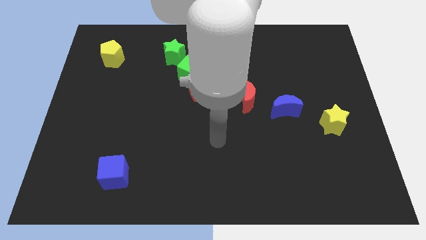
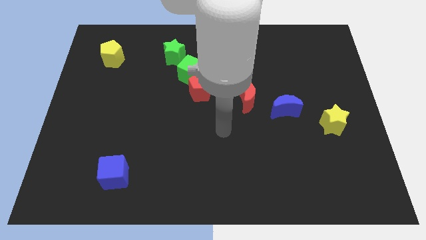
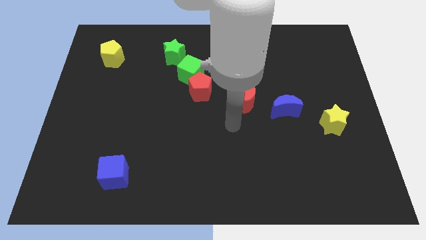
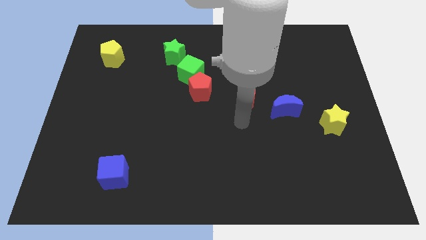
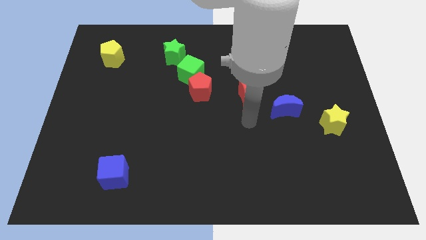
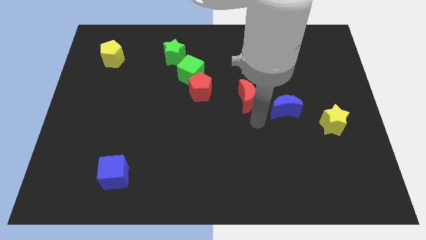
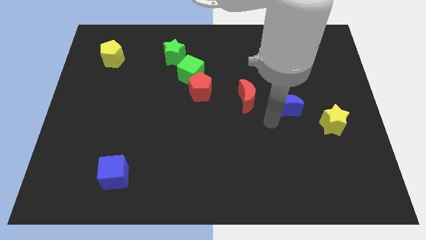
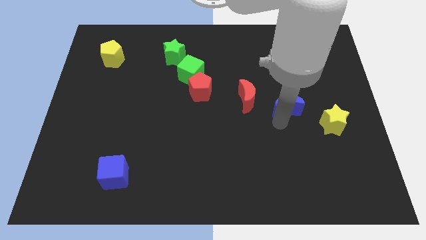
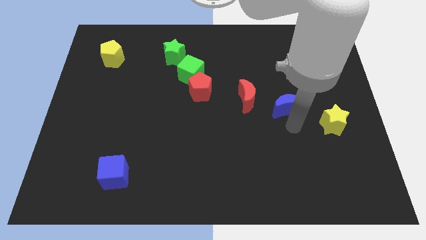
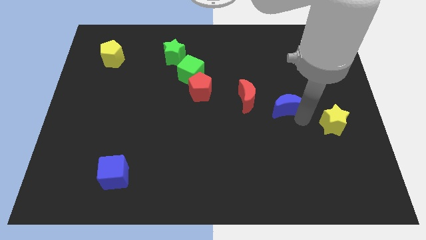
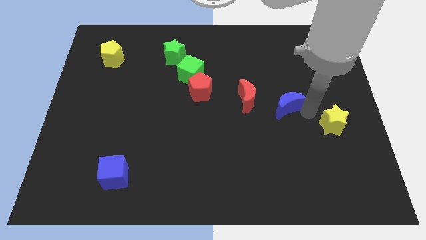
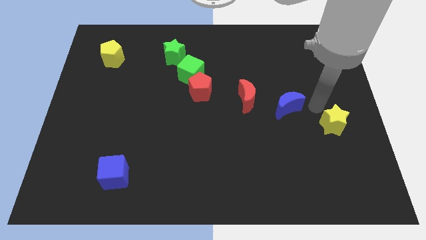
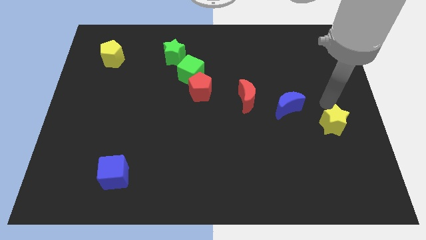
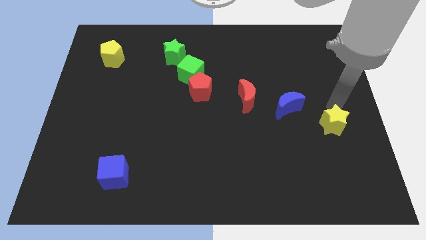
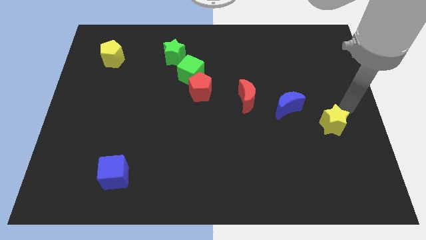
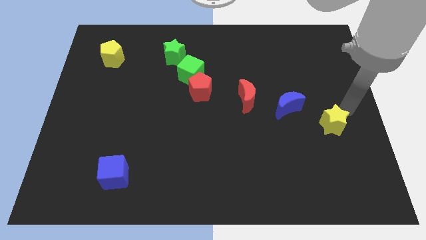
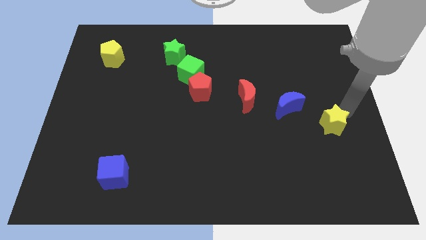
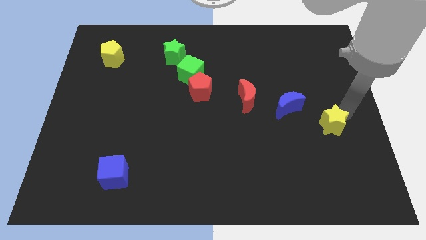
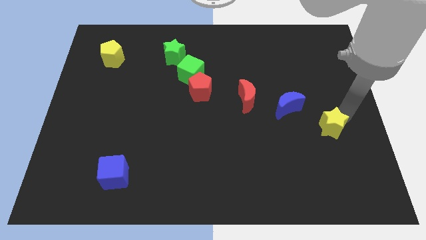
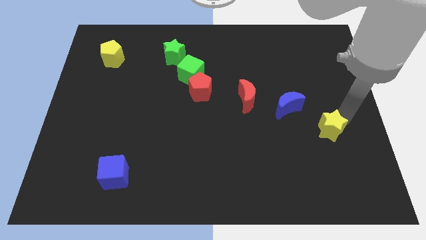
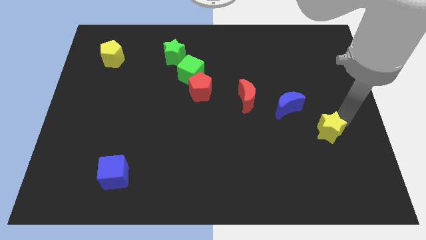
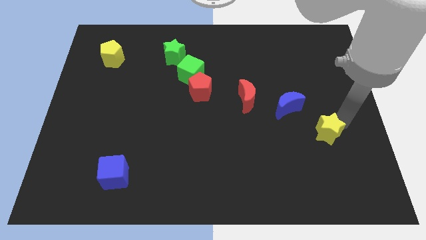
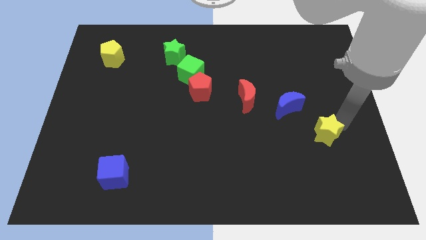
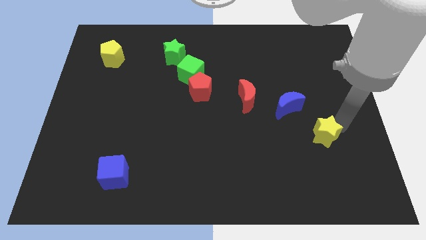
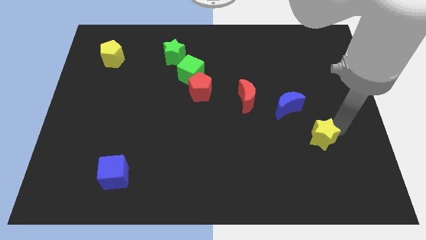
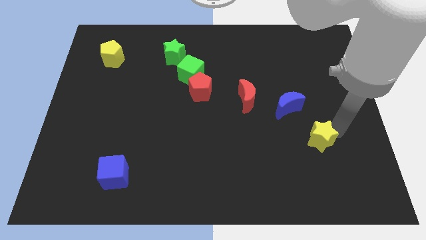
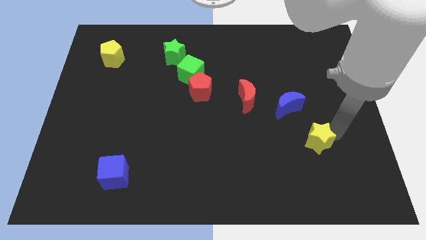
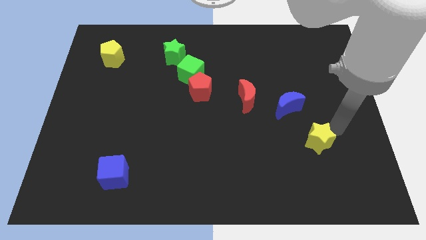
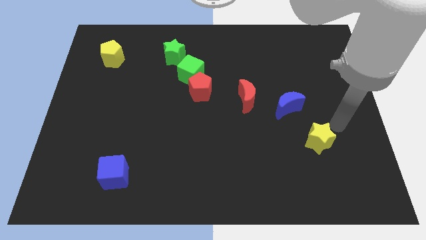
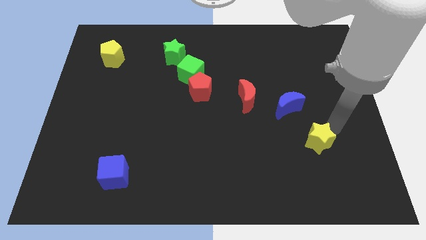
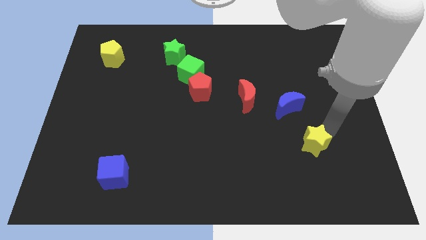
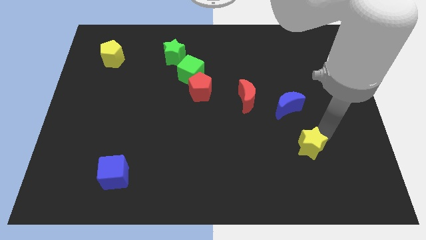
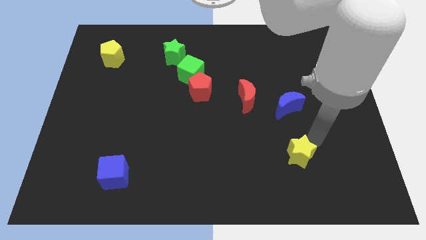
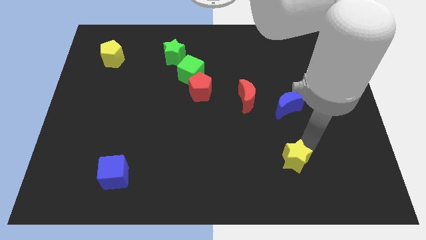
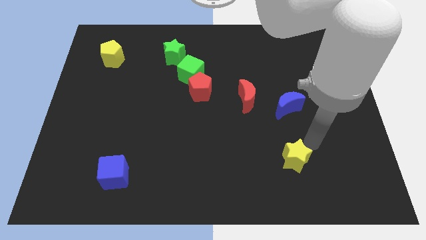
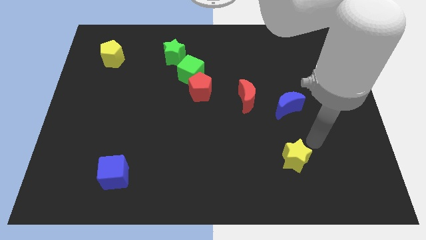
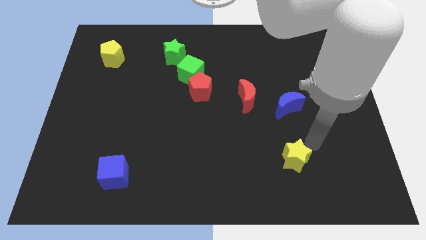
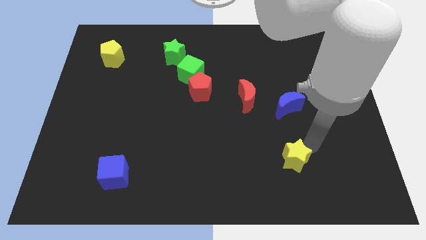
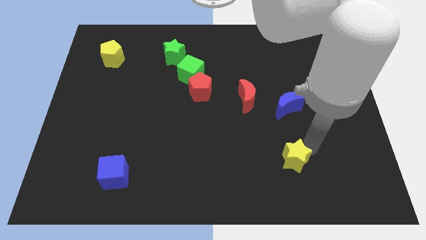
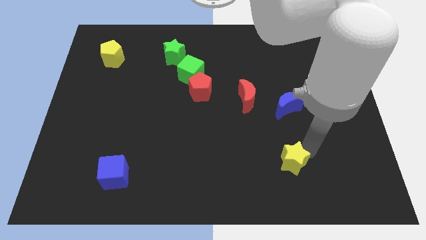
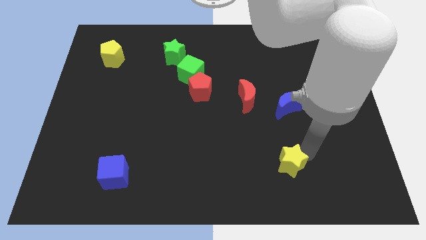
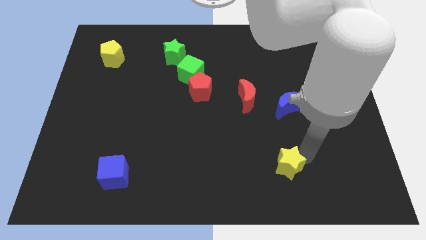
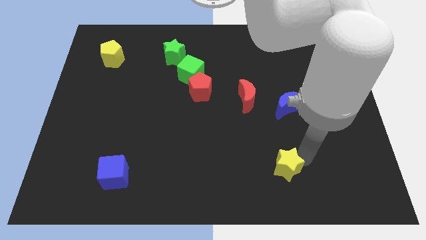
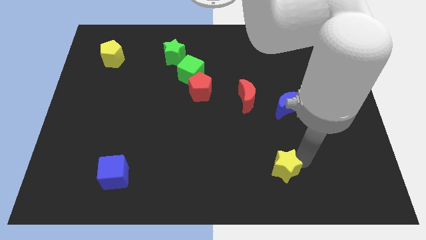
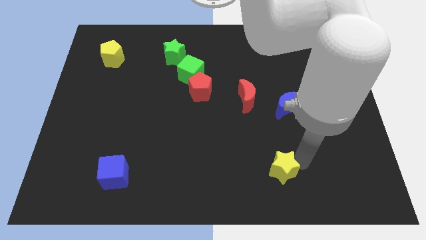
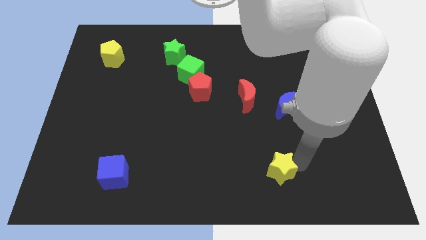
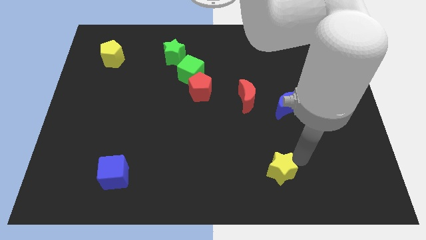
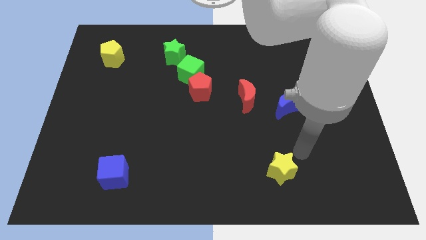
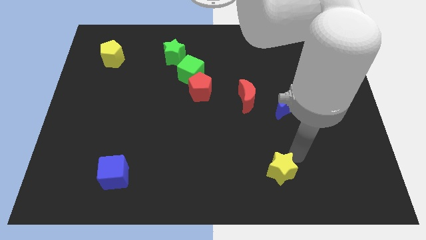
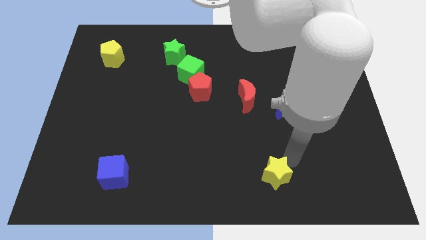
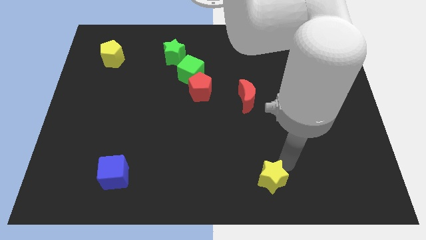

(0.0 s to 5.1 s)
put the yellow star to the bottom

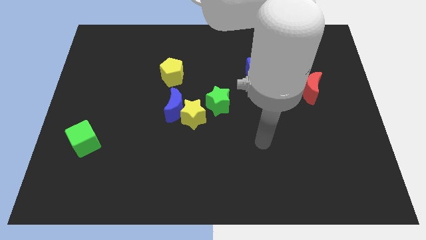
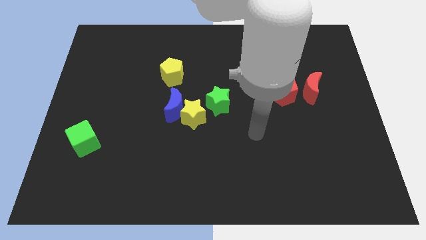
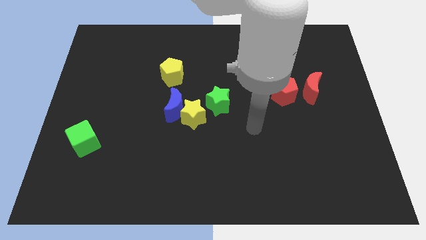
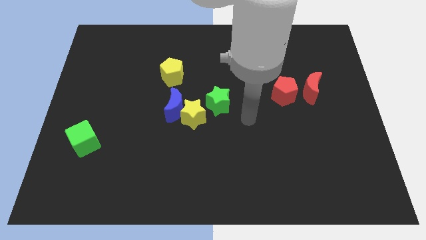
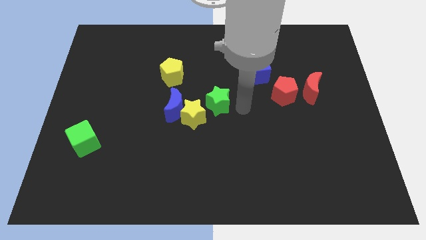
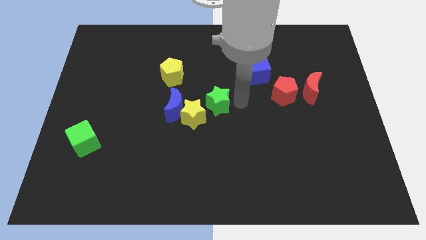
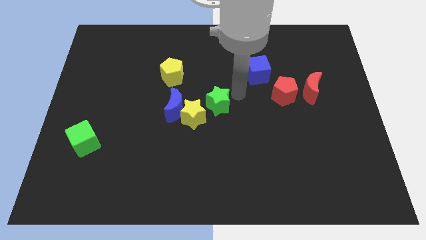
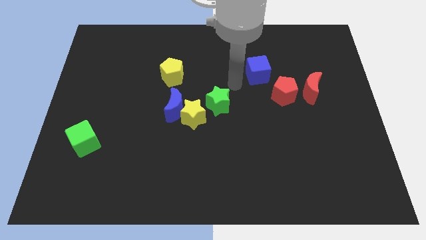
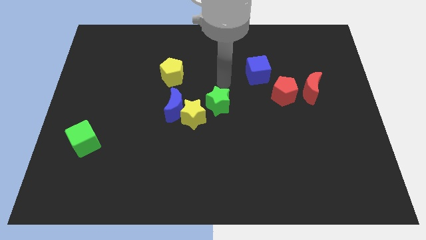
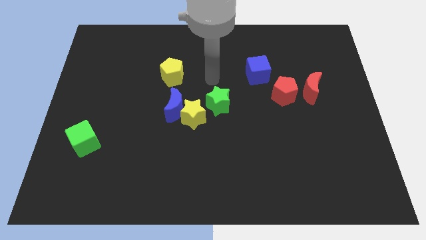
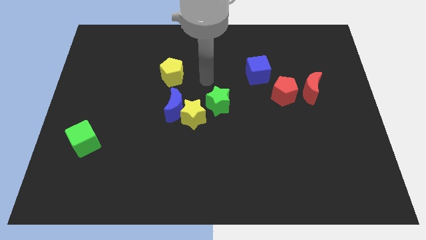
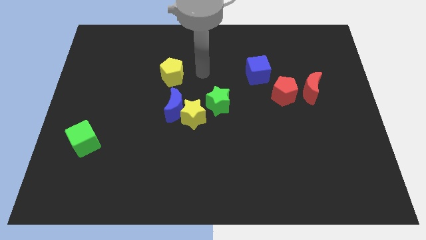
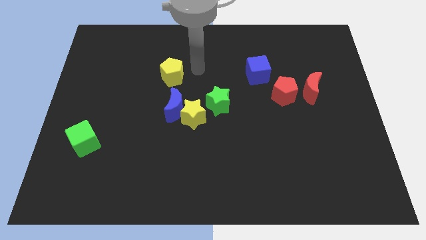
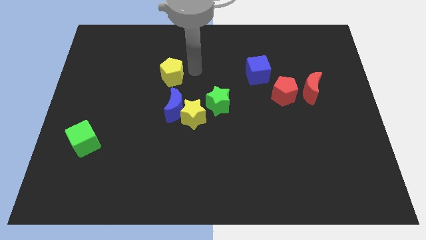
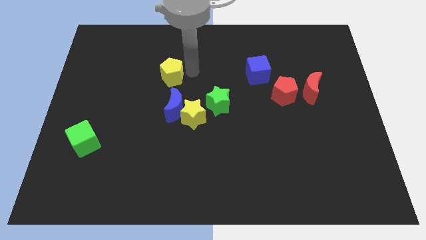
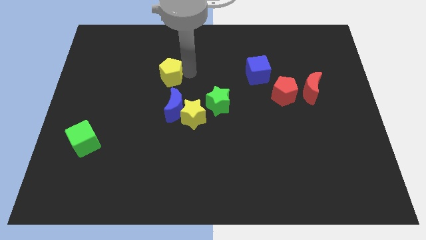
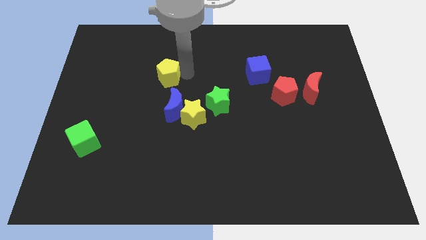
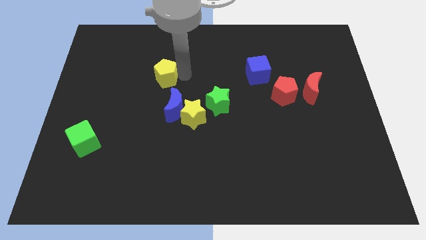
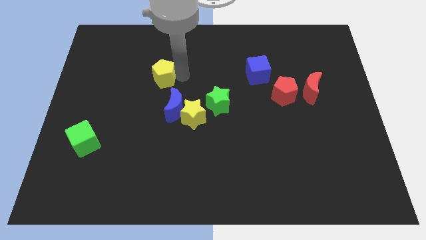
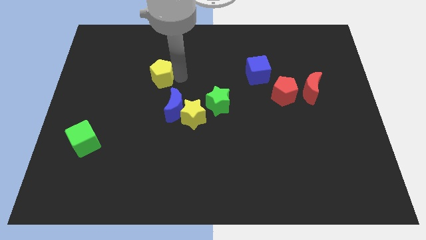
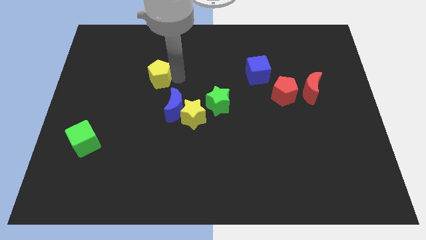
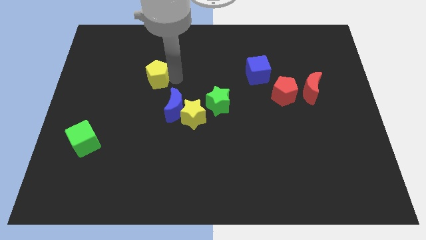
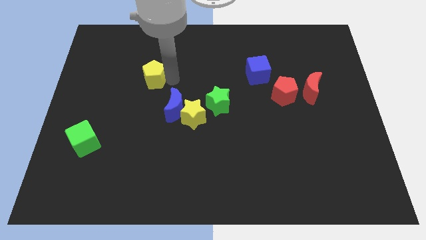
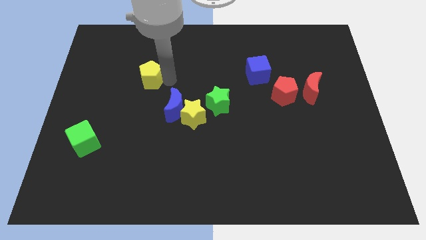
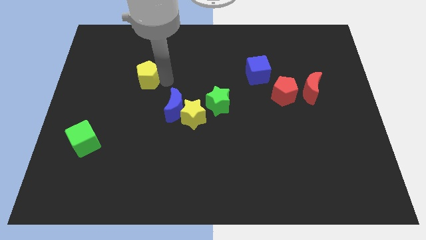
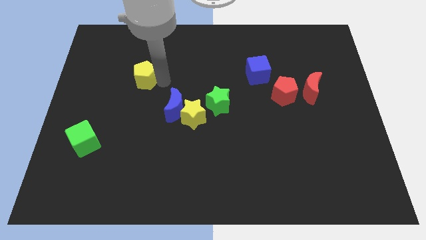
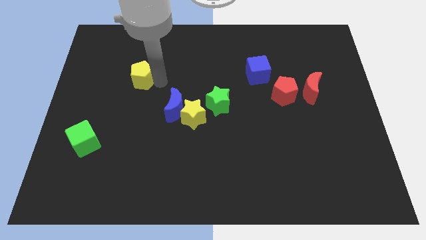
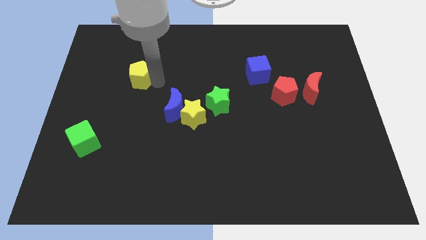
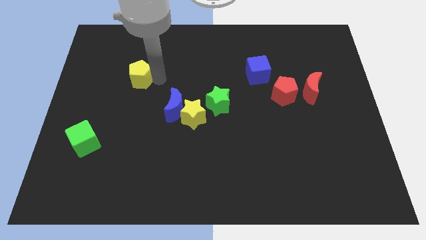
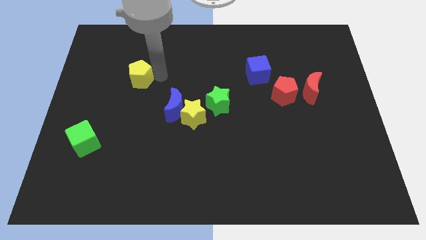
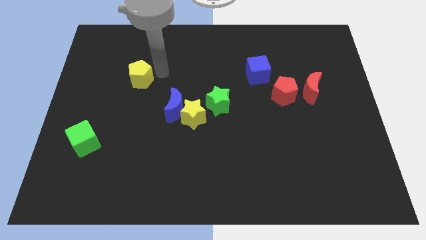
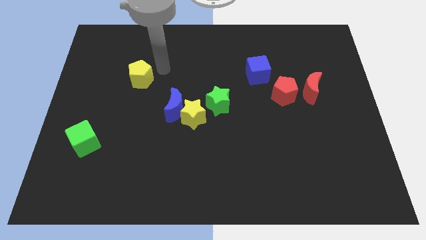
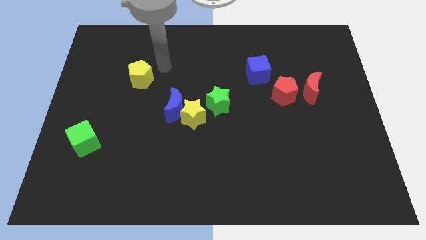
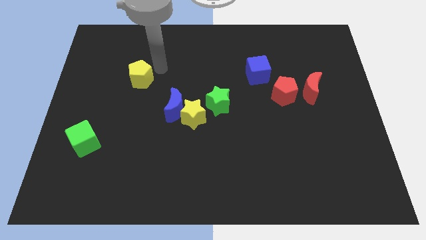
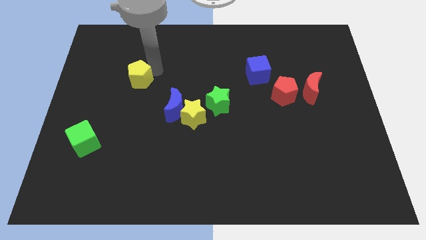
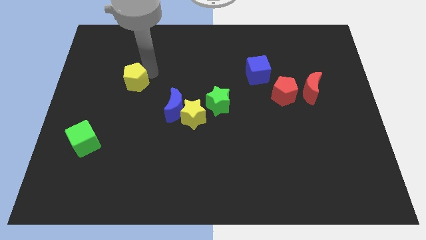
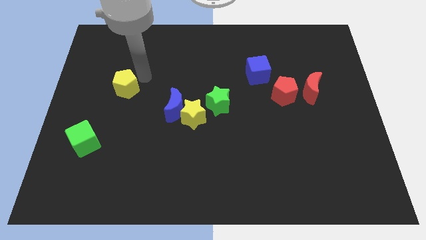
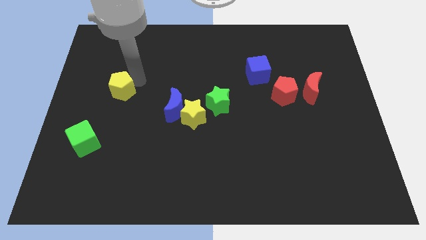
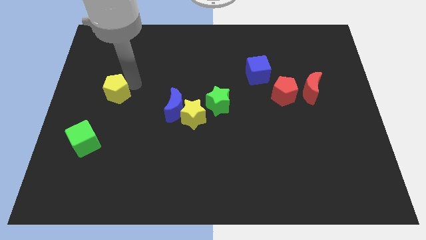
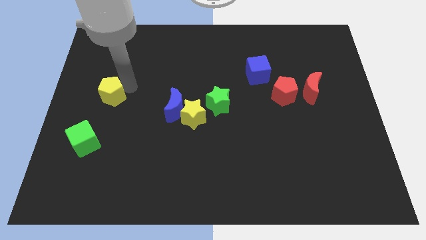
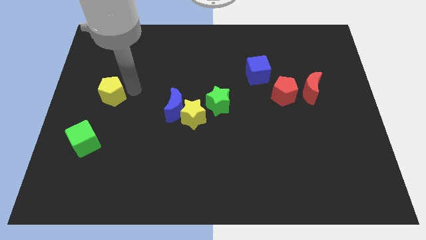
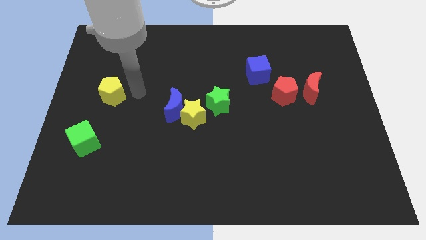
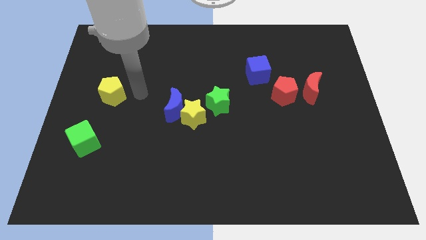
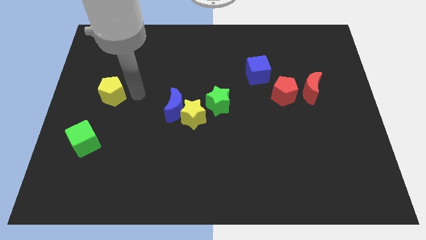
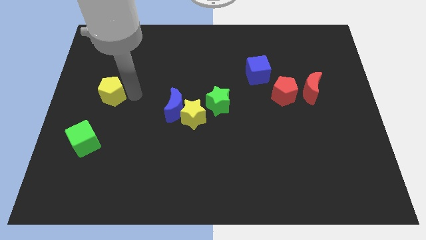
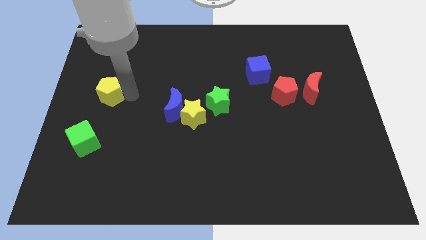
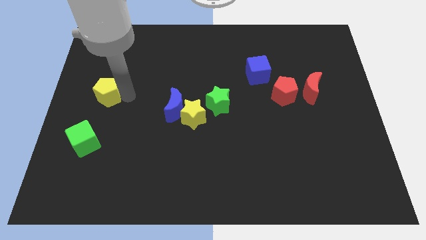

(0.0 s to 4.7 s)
put the yellow pentagon to the center left
